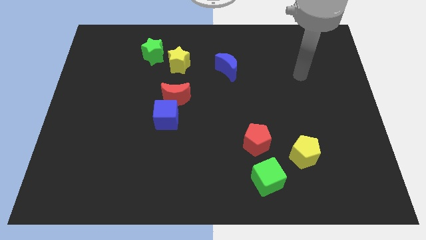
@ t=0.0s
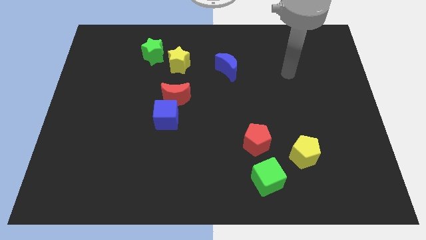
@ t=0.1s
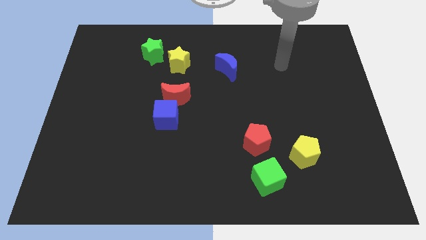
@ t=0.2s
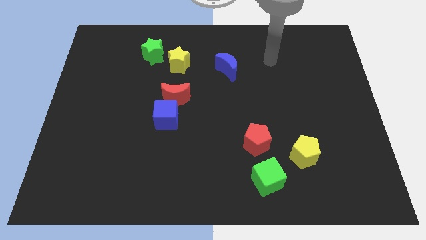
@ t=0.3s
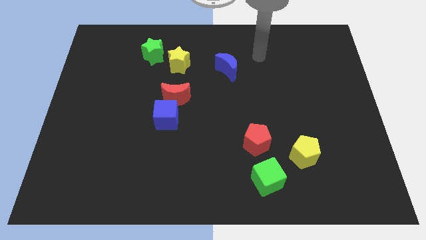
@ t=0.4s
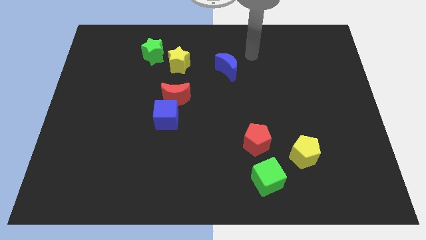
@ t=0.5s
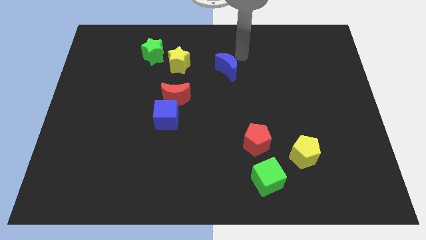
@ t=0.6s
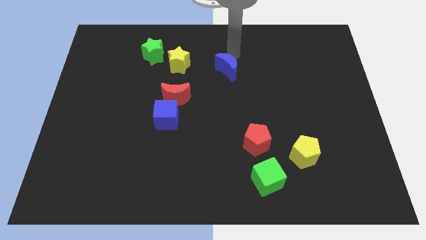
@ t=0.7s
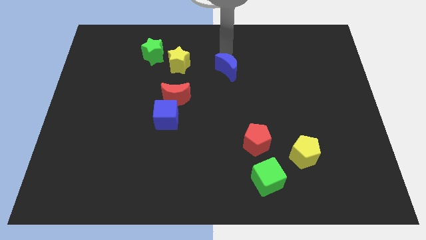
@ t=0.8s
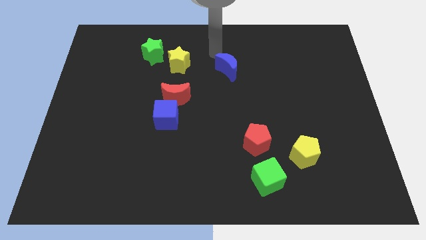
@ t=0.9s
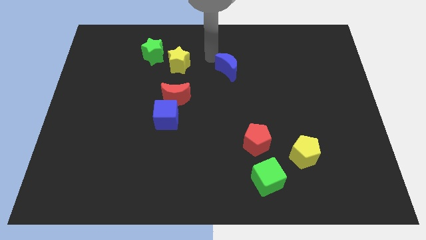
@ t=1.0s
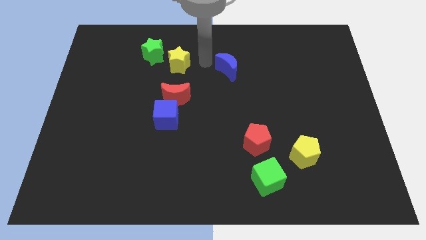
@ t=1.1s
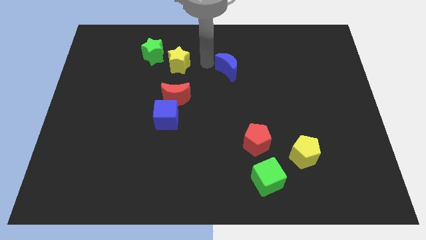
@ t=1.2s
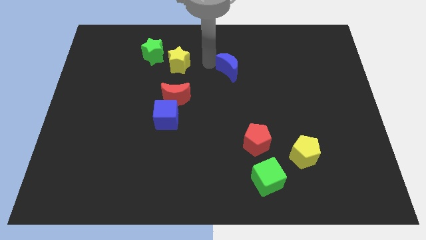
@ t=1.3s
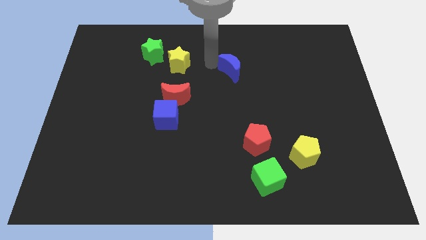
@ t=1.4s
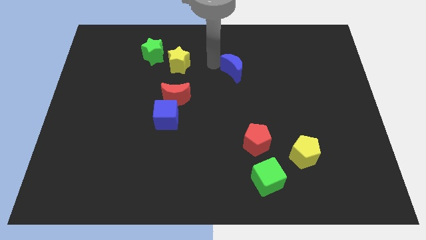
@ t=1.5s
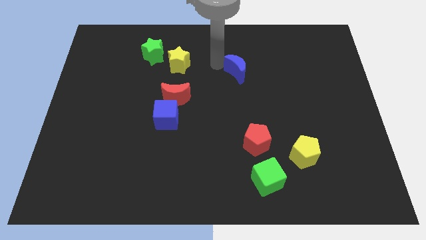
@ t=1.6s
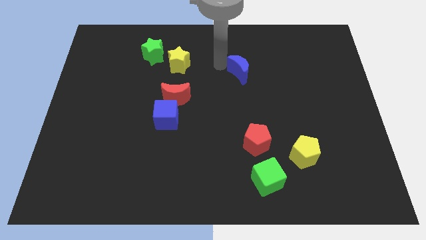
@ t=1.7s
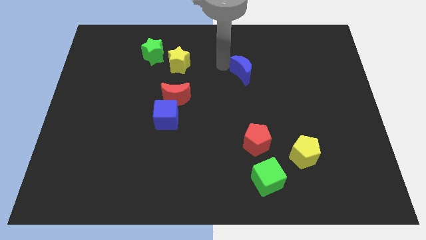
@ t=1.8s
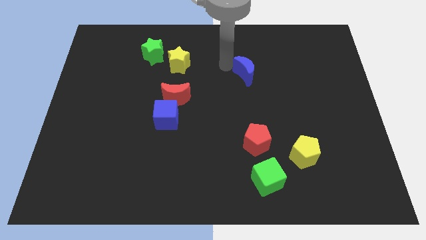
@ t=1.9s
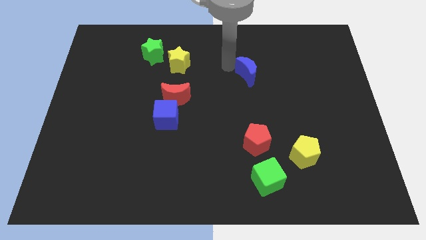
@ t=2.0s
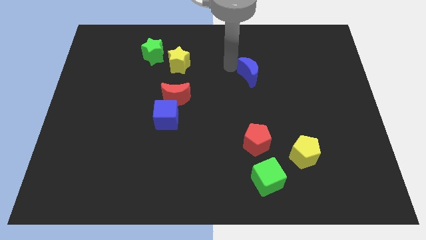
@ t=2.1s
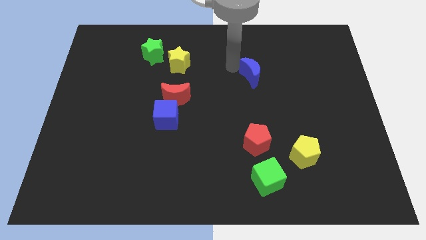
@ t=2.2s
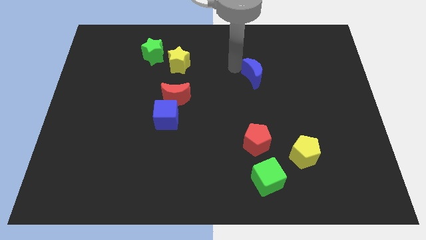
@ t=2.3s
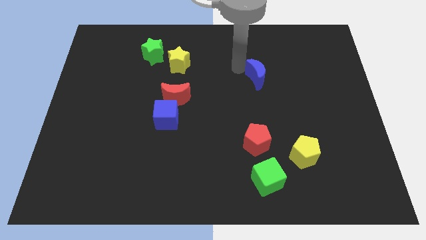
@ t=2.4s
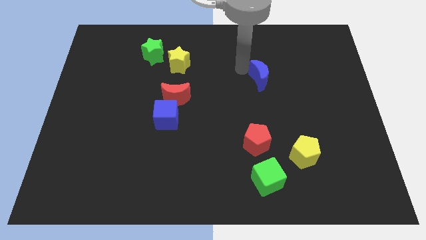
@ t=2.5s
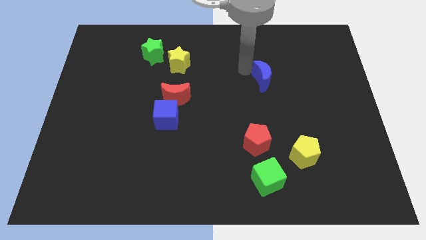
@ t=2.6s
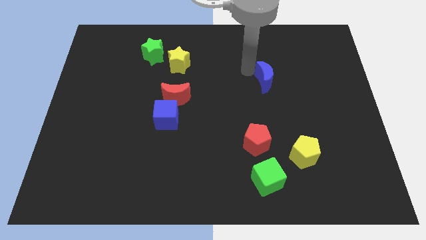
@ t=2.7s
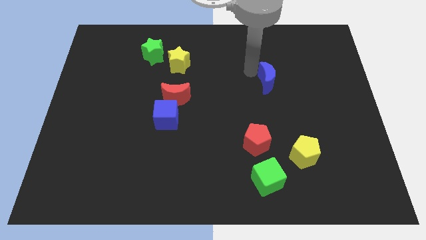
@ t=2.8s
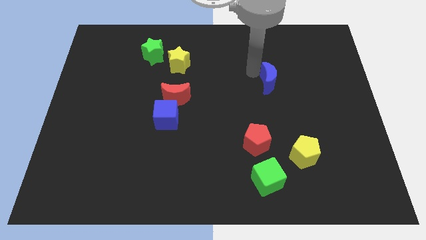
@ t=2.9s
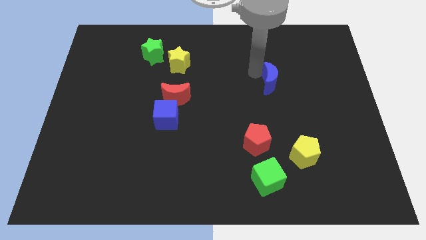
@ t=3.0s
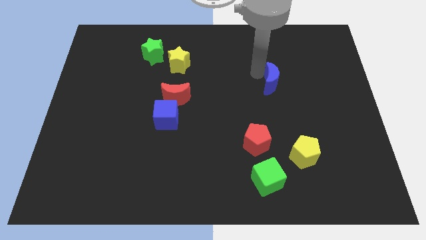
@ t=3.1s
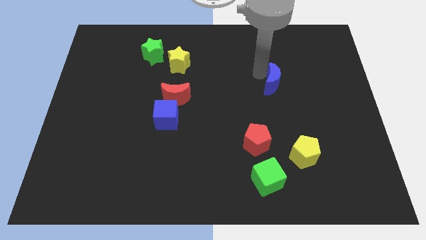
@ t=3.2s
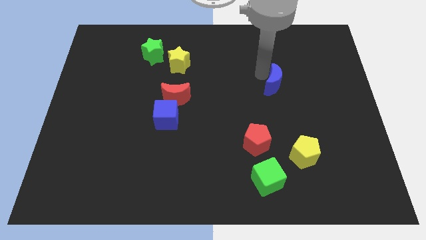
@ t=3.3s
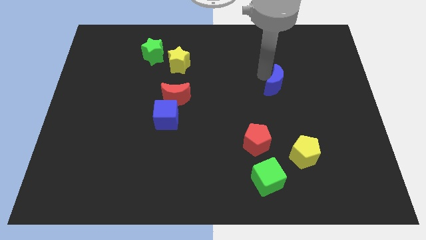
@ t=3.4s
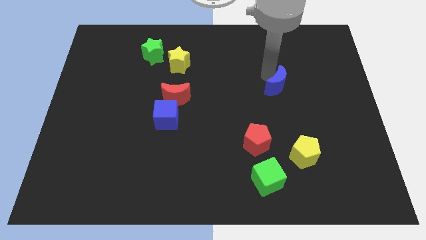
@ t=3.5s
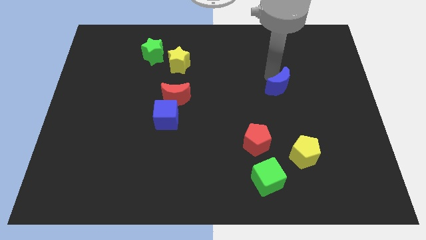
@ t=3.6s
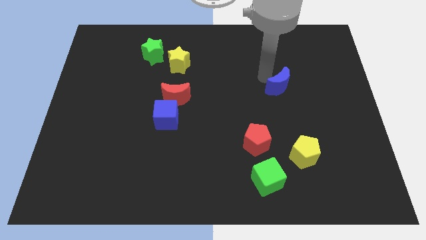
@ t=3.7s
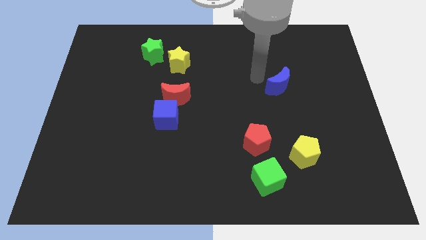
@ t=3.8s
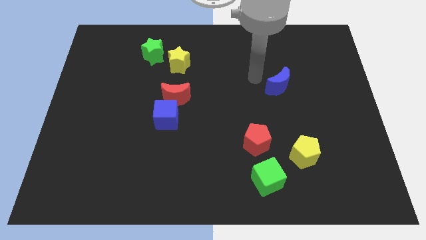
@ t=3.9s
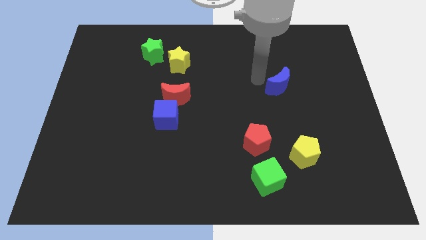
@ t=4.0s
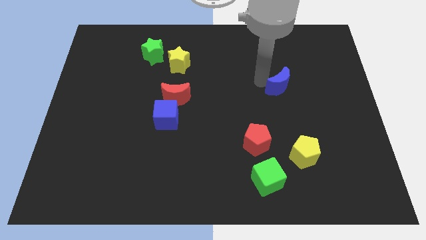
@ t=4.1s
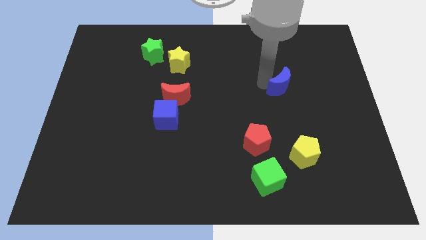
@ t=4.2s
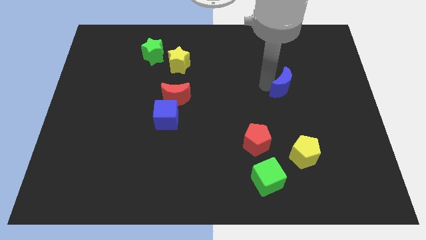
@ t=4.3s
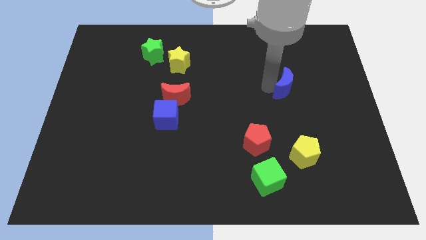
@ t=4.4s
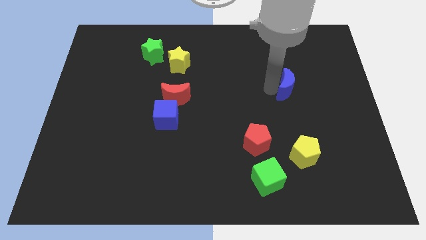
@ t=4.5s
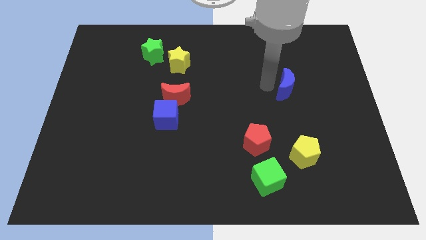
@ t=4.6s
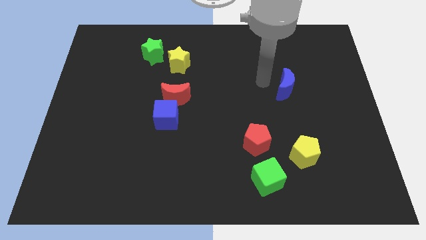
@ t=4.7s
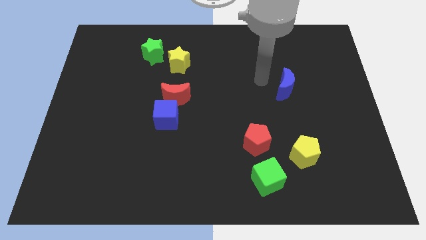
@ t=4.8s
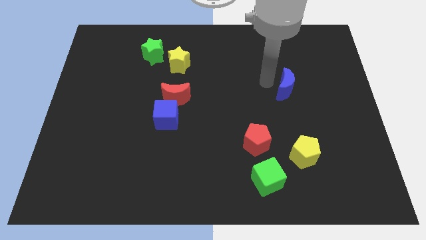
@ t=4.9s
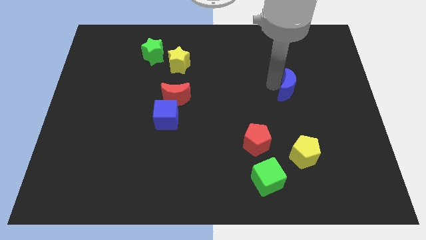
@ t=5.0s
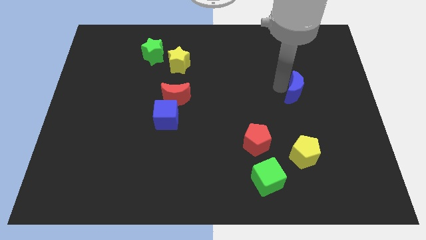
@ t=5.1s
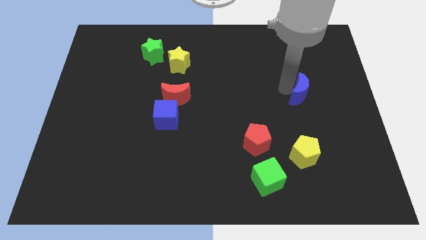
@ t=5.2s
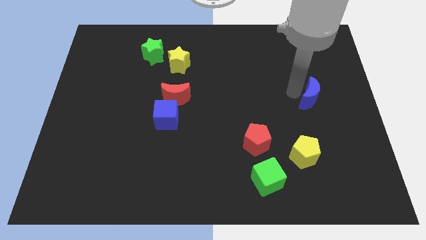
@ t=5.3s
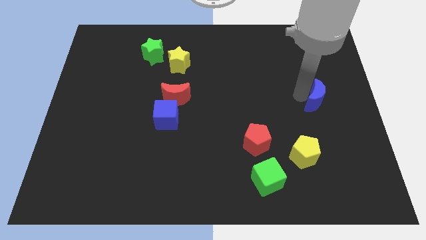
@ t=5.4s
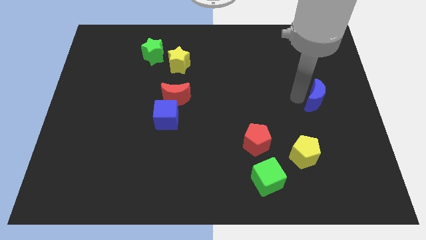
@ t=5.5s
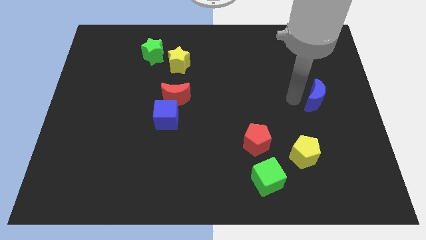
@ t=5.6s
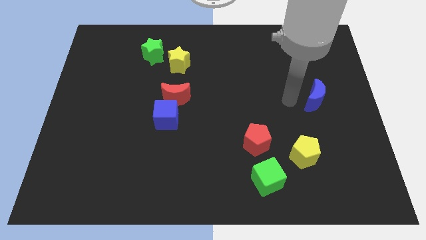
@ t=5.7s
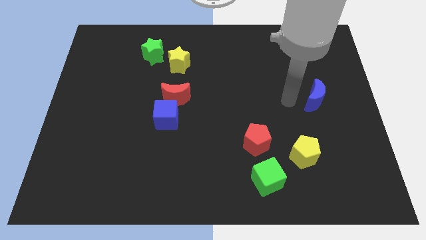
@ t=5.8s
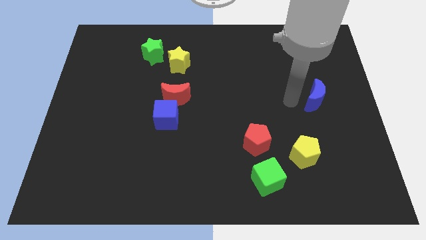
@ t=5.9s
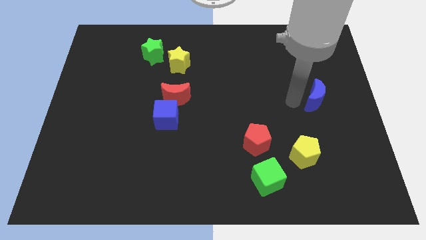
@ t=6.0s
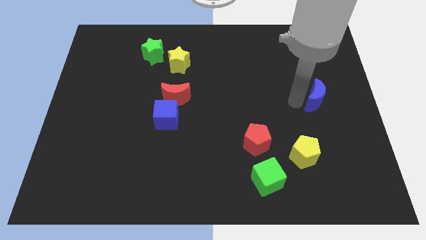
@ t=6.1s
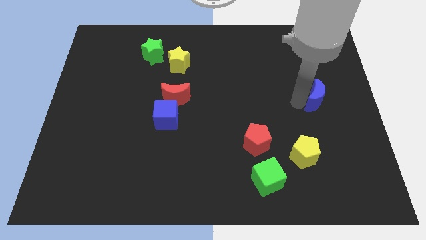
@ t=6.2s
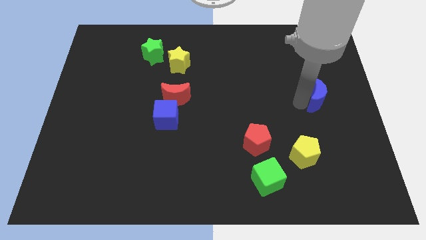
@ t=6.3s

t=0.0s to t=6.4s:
put the blue moon to the right side
